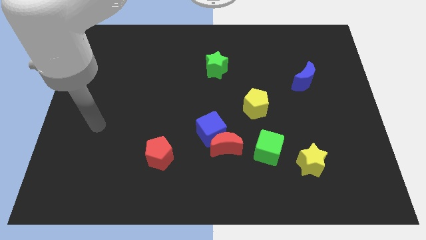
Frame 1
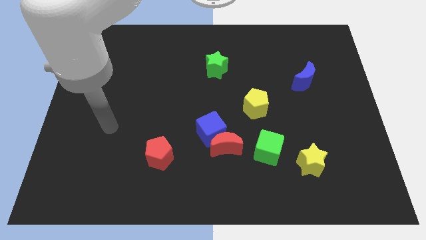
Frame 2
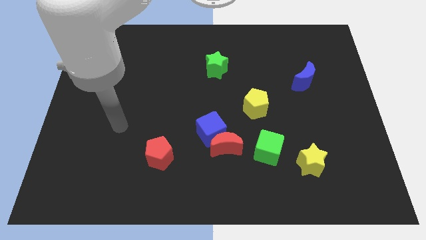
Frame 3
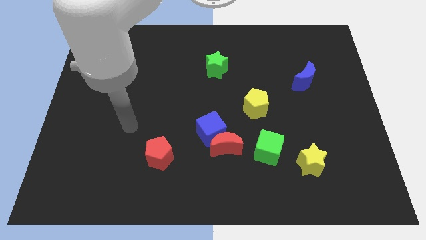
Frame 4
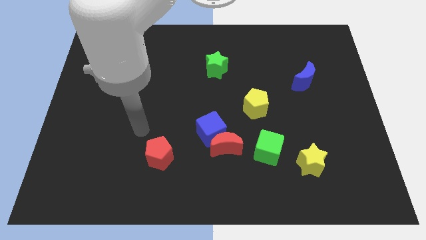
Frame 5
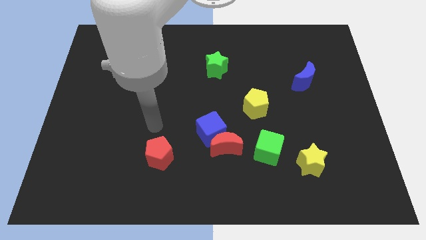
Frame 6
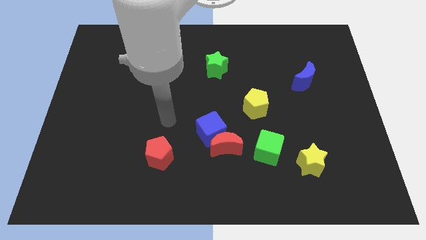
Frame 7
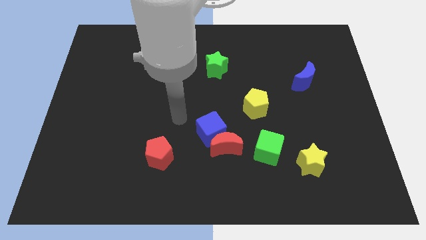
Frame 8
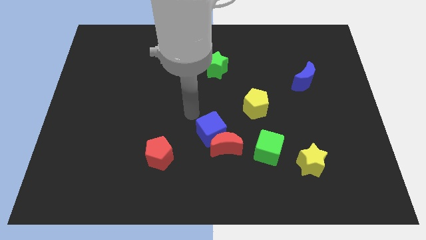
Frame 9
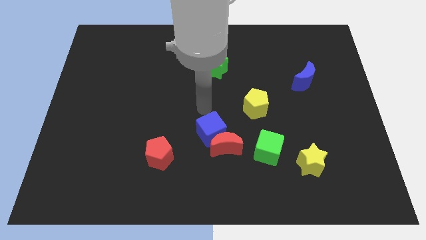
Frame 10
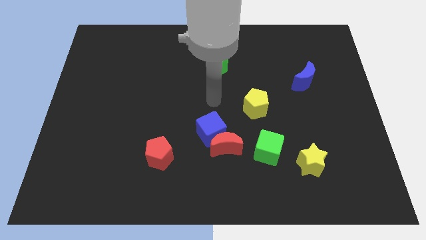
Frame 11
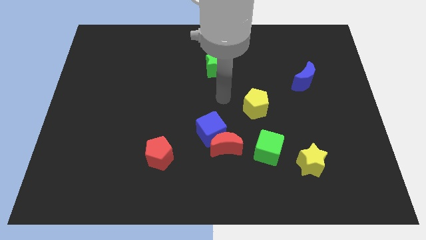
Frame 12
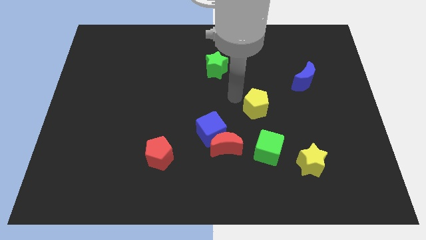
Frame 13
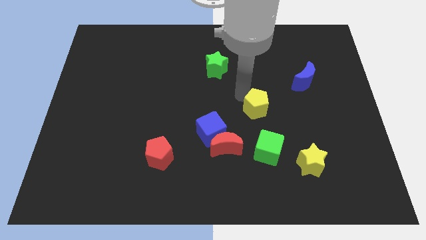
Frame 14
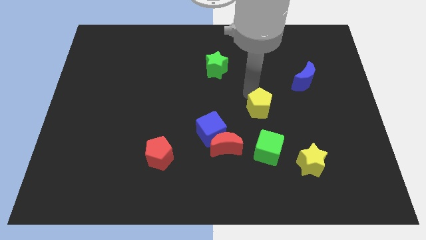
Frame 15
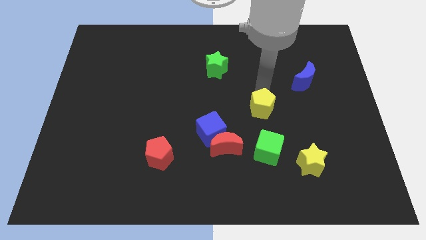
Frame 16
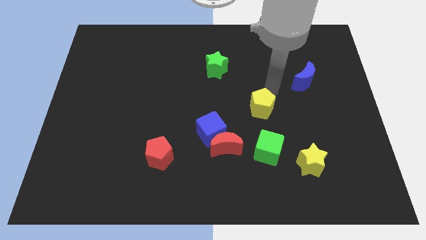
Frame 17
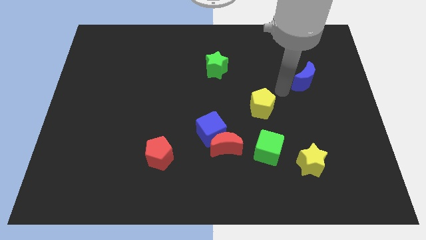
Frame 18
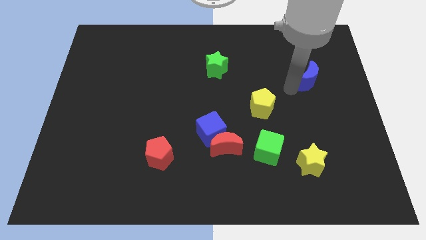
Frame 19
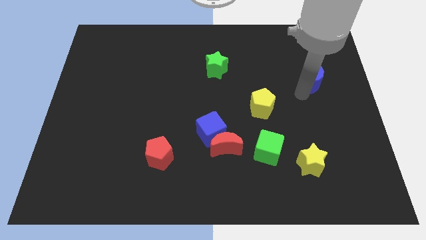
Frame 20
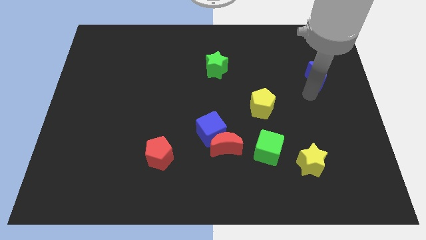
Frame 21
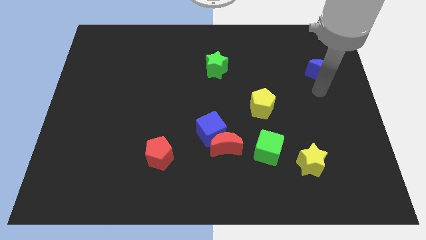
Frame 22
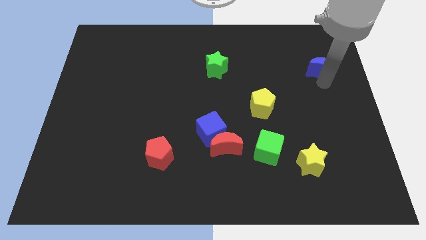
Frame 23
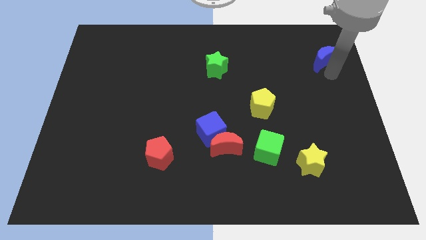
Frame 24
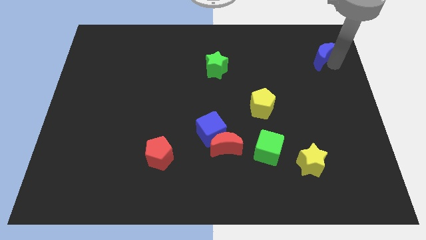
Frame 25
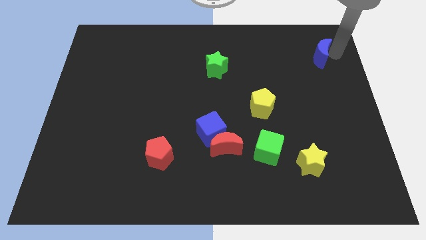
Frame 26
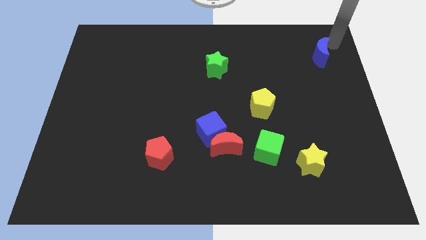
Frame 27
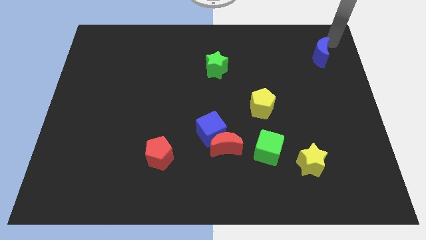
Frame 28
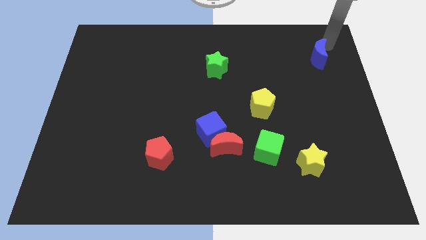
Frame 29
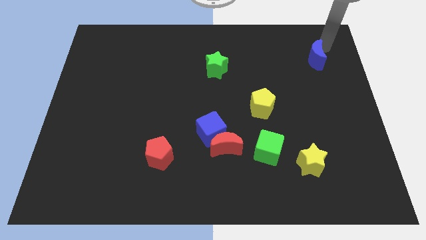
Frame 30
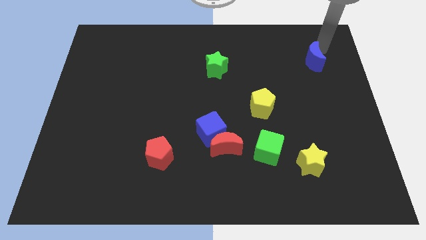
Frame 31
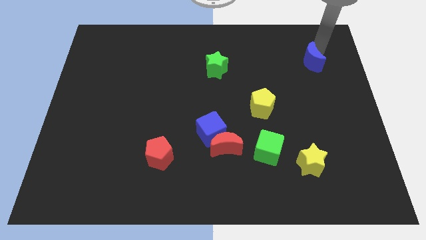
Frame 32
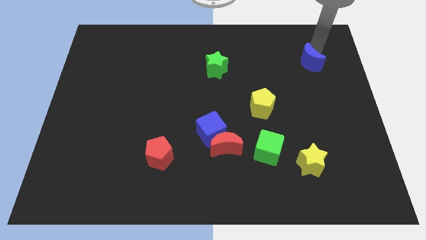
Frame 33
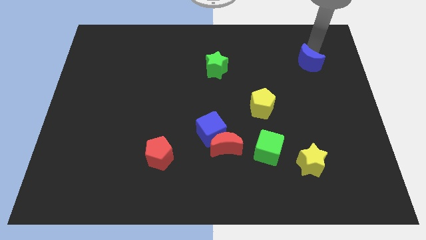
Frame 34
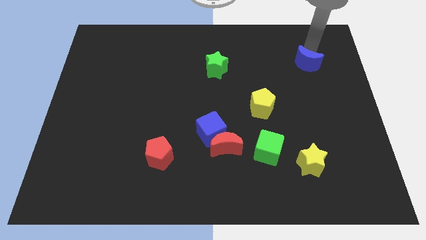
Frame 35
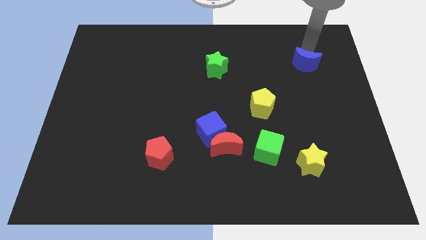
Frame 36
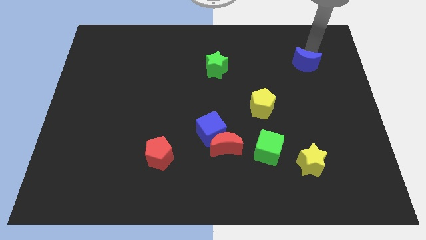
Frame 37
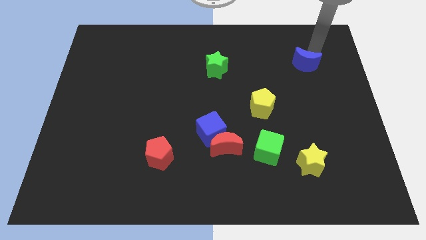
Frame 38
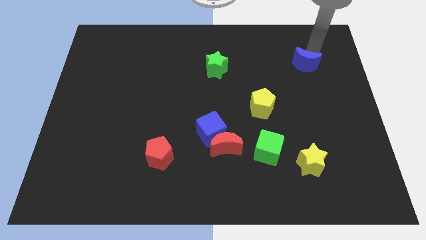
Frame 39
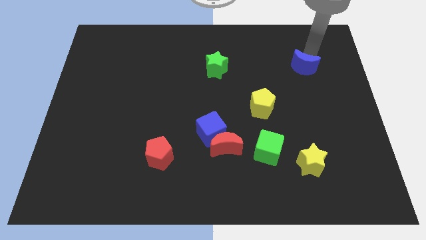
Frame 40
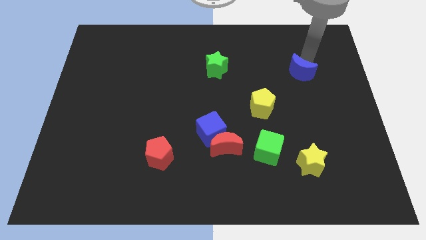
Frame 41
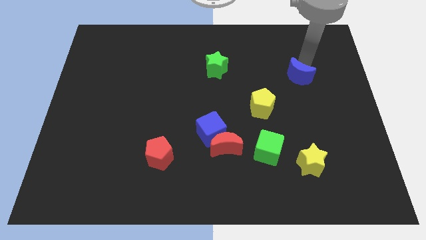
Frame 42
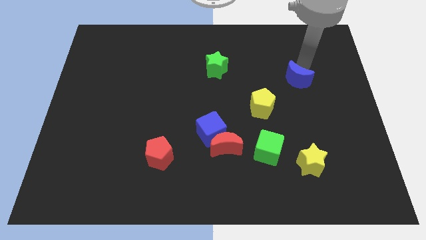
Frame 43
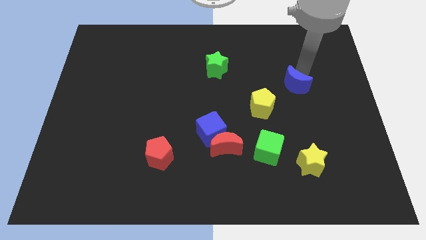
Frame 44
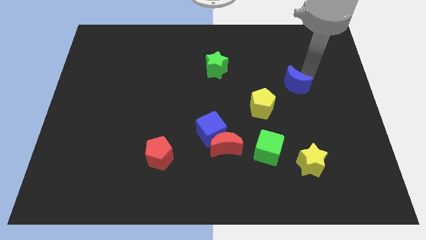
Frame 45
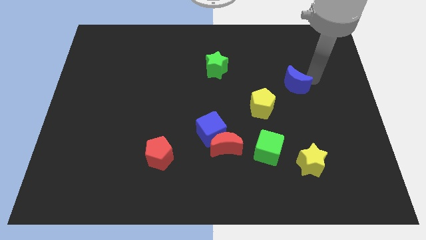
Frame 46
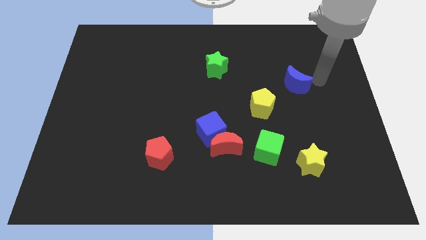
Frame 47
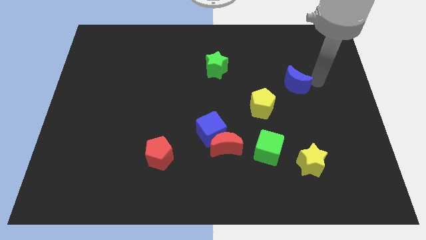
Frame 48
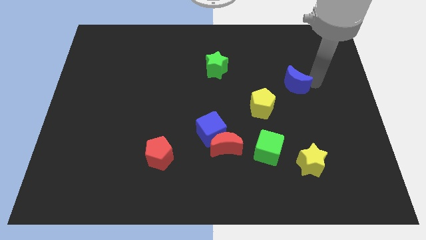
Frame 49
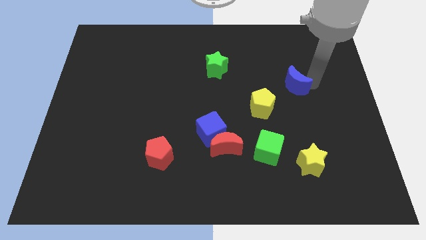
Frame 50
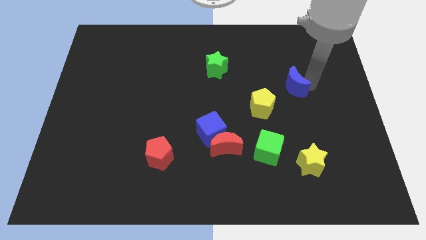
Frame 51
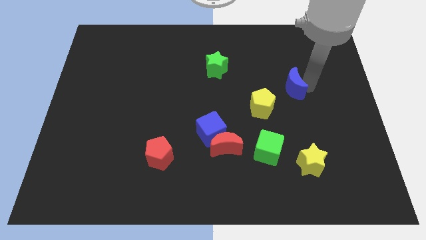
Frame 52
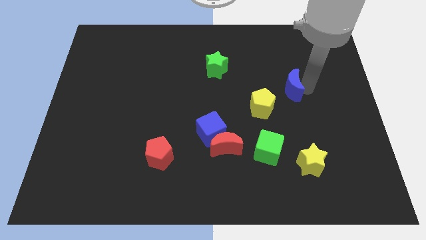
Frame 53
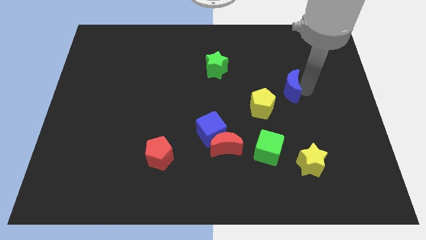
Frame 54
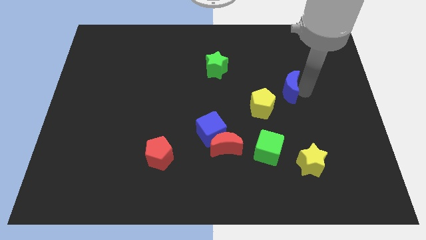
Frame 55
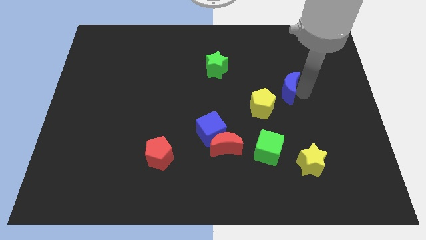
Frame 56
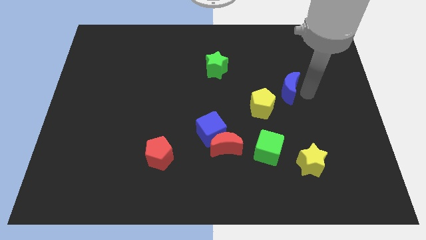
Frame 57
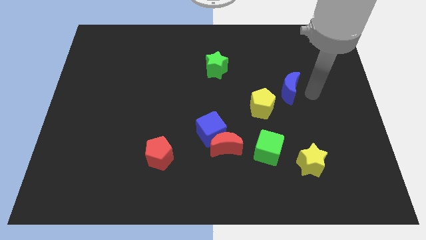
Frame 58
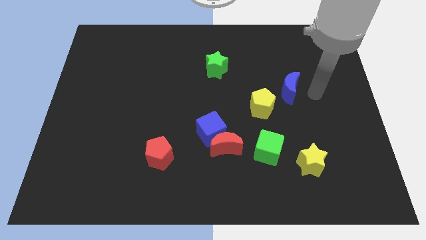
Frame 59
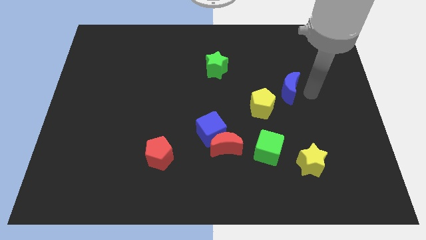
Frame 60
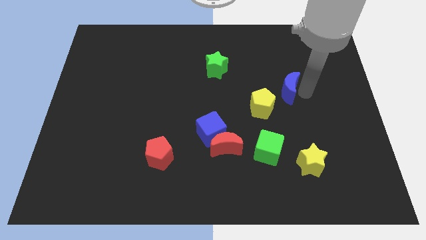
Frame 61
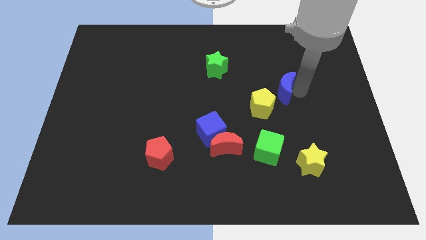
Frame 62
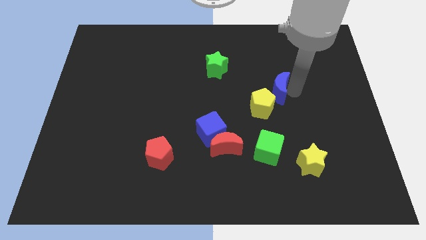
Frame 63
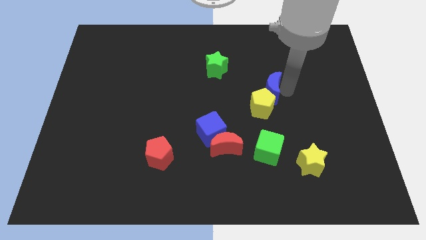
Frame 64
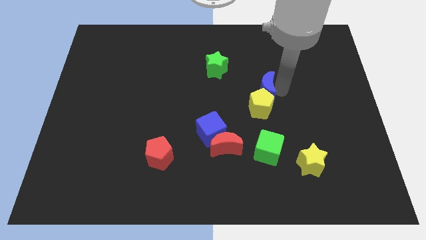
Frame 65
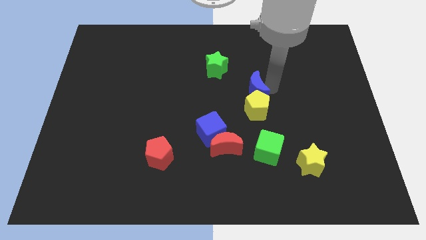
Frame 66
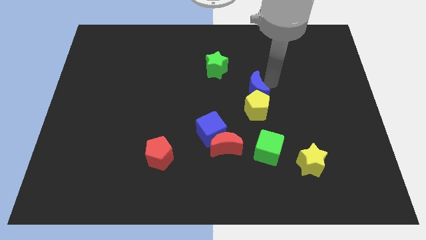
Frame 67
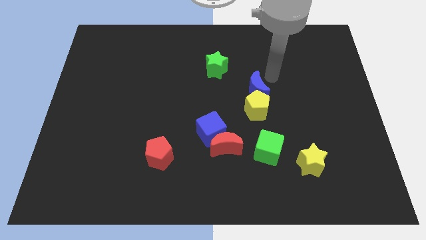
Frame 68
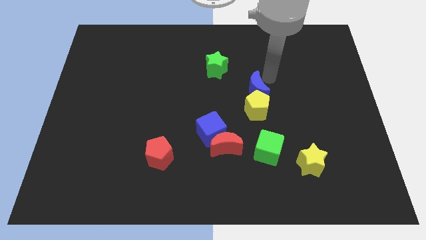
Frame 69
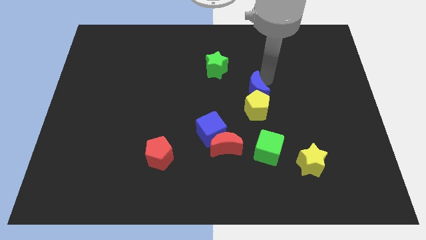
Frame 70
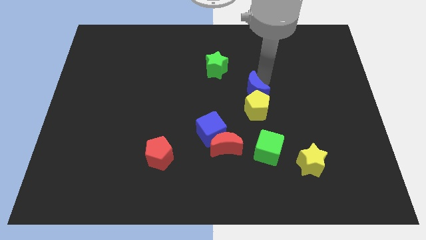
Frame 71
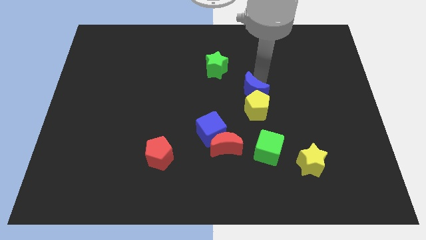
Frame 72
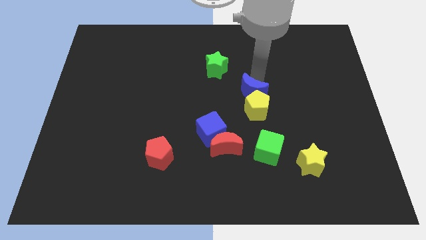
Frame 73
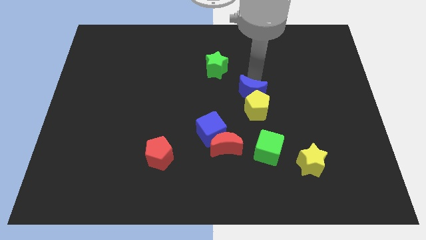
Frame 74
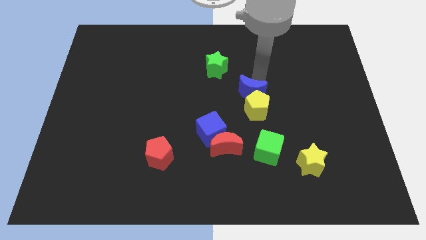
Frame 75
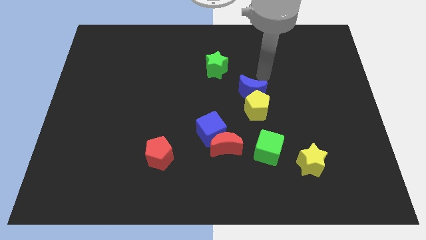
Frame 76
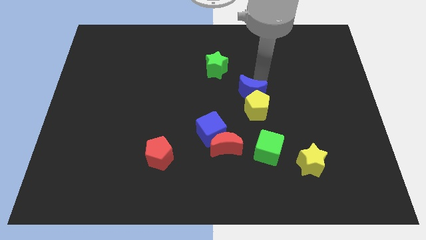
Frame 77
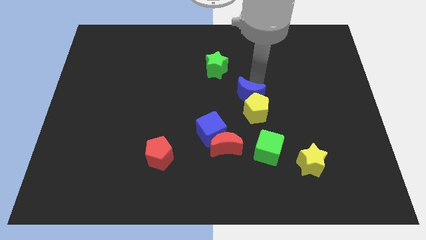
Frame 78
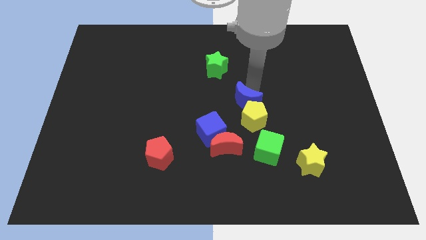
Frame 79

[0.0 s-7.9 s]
slide the blue moon diagonally up and to the right of the blue cube

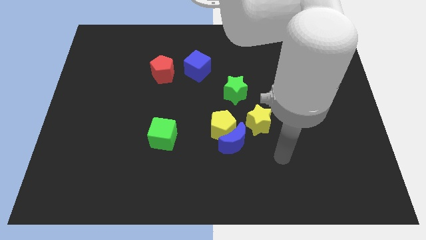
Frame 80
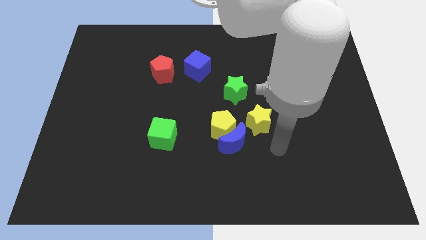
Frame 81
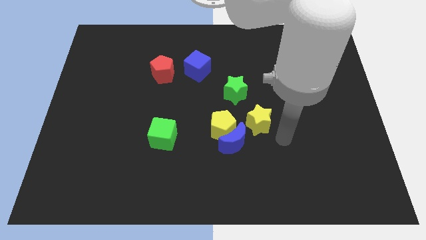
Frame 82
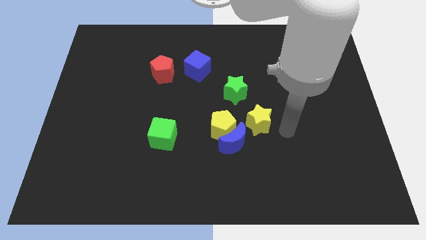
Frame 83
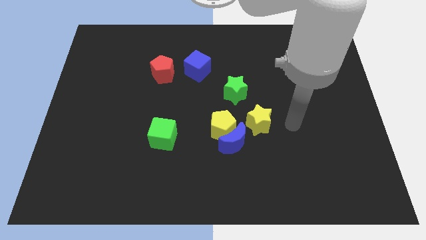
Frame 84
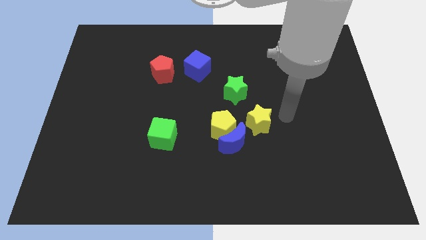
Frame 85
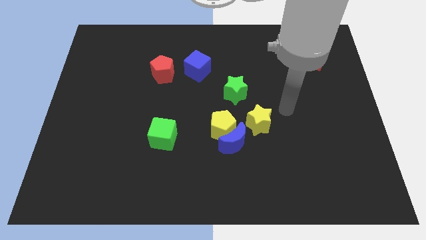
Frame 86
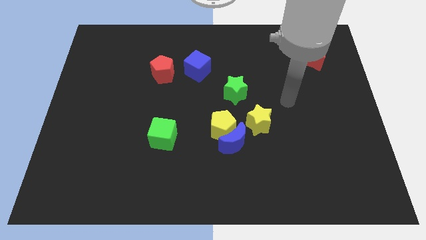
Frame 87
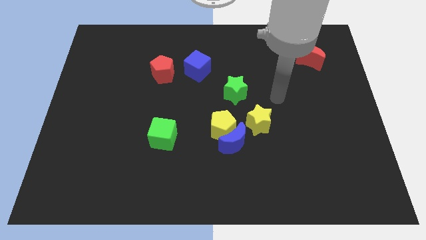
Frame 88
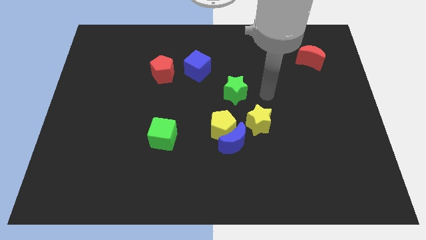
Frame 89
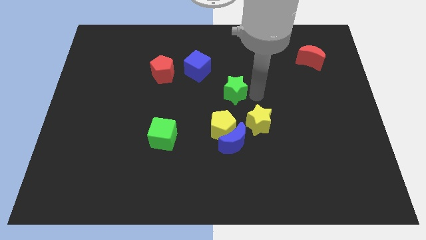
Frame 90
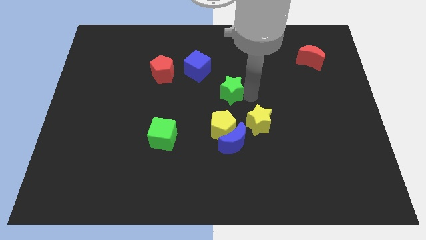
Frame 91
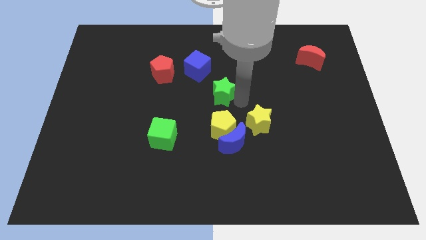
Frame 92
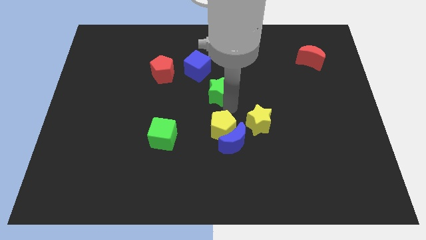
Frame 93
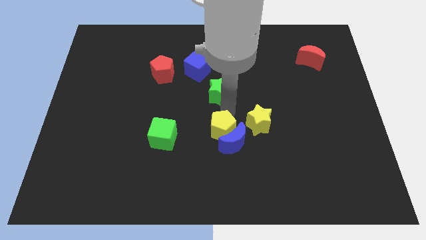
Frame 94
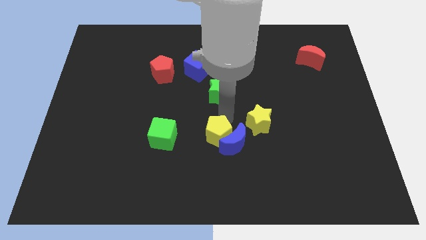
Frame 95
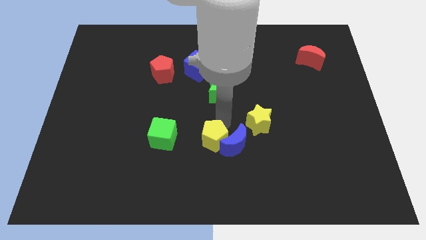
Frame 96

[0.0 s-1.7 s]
push the yellow pentagon to the bottom left side of the blue moon
